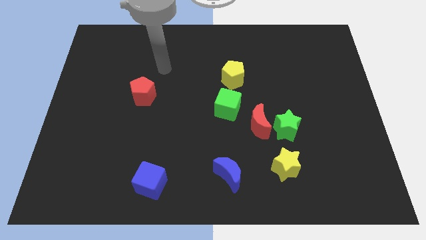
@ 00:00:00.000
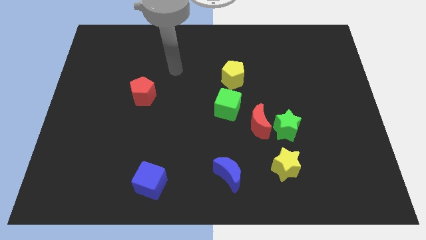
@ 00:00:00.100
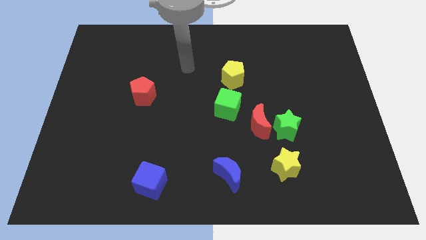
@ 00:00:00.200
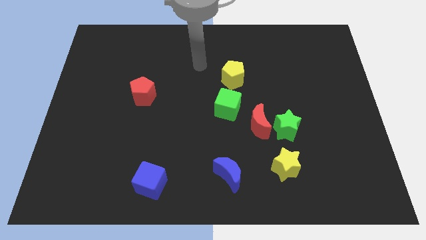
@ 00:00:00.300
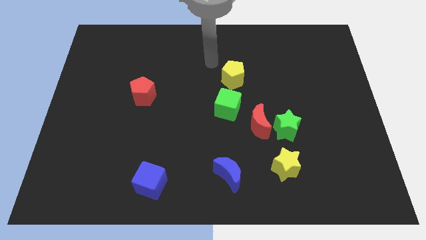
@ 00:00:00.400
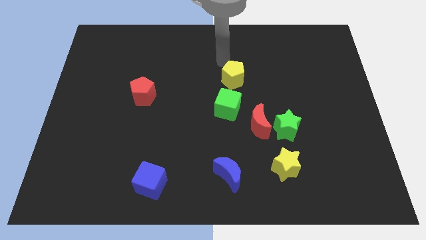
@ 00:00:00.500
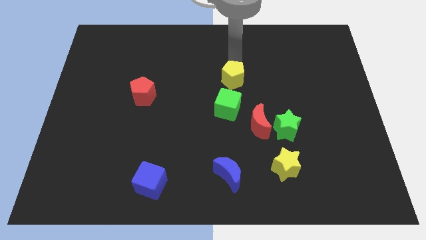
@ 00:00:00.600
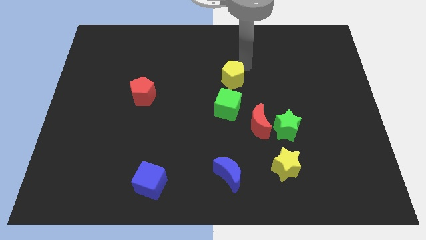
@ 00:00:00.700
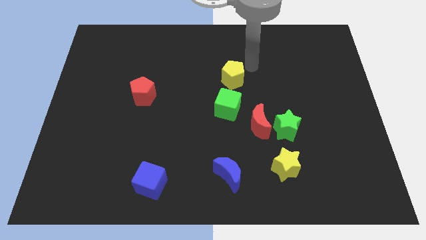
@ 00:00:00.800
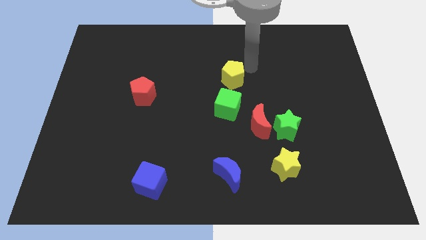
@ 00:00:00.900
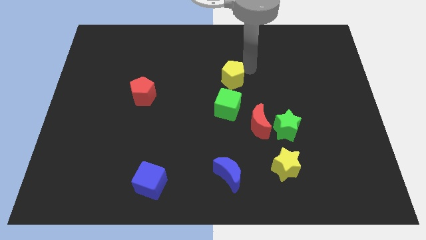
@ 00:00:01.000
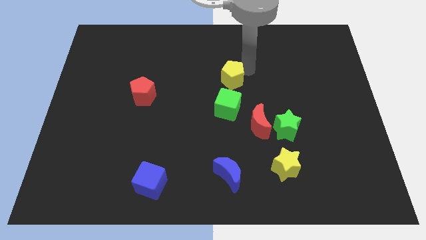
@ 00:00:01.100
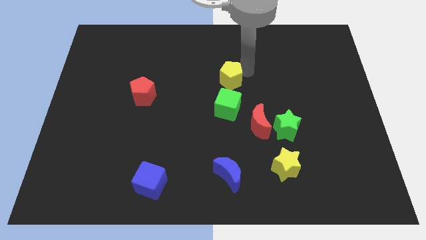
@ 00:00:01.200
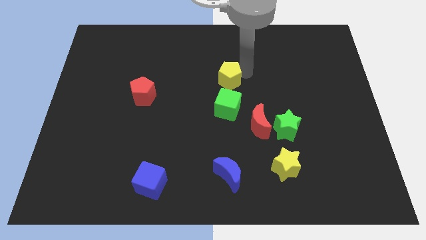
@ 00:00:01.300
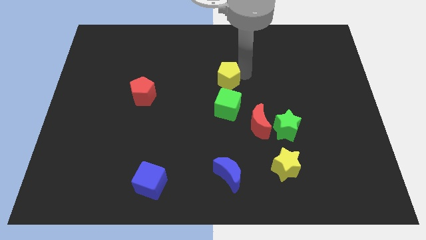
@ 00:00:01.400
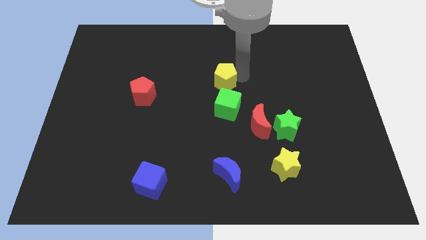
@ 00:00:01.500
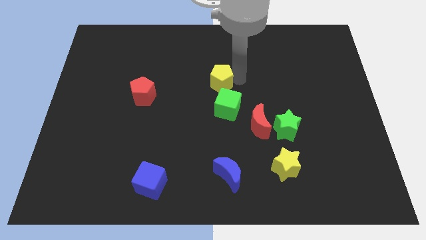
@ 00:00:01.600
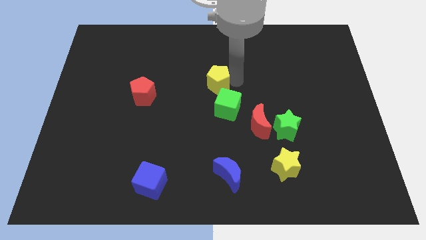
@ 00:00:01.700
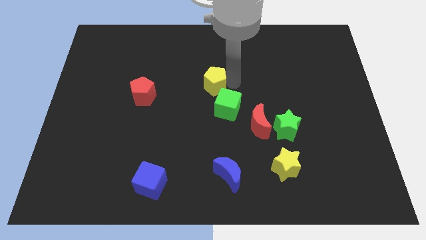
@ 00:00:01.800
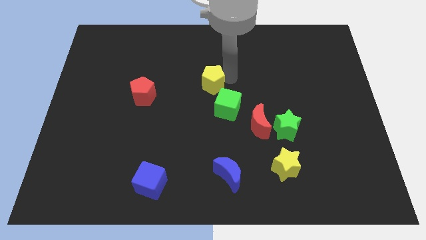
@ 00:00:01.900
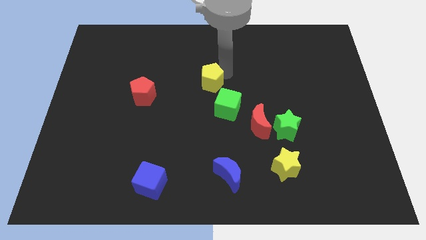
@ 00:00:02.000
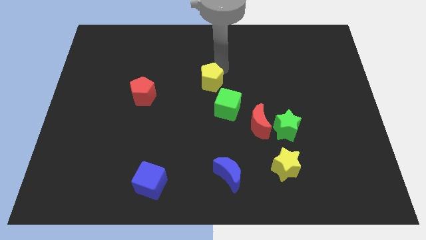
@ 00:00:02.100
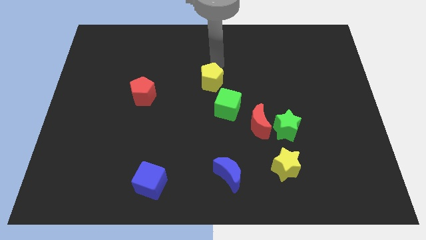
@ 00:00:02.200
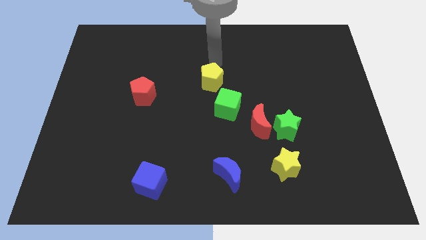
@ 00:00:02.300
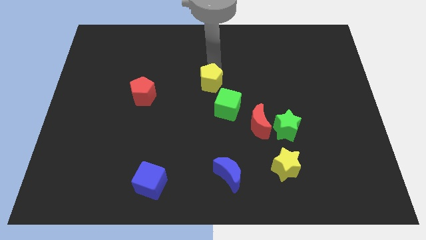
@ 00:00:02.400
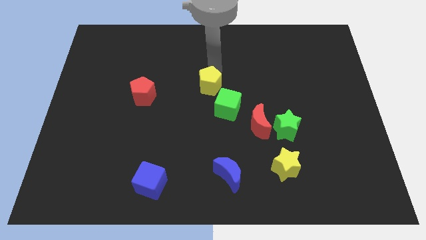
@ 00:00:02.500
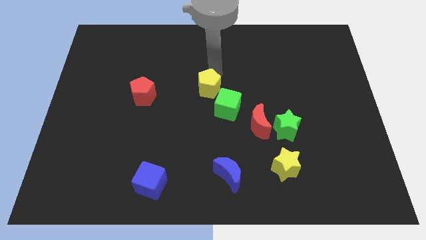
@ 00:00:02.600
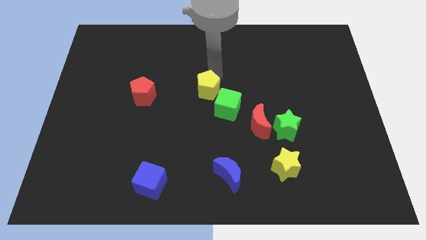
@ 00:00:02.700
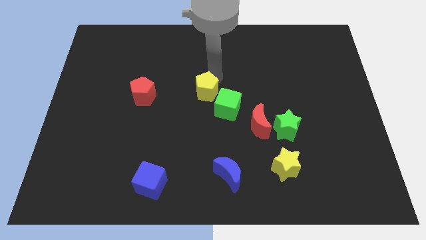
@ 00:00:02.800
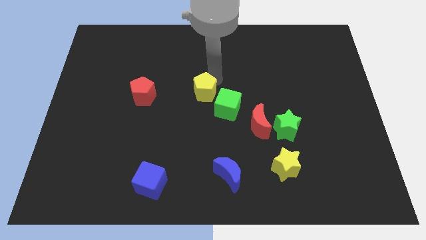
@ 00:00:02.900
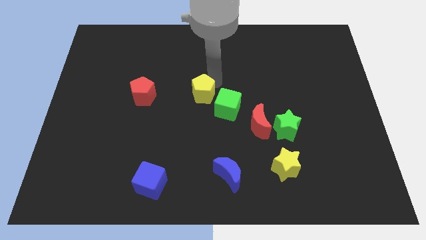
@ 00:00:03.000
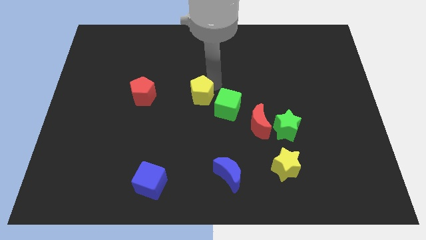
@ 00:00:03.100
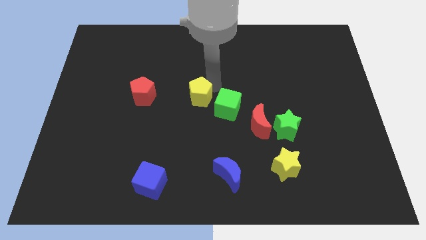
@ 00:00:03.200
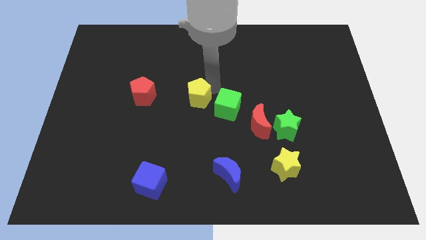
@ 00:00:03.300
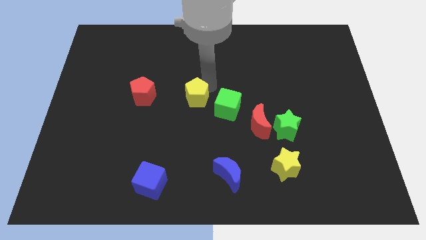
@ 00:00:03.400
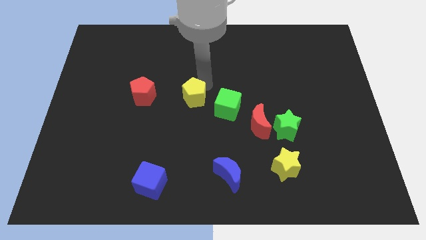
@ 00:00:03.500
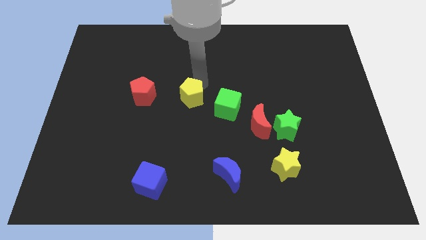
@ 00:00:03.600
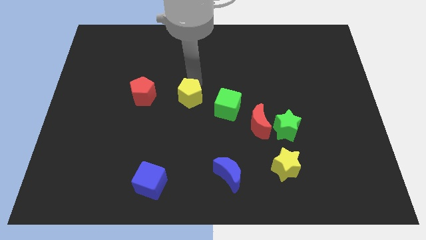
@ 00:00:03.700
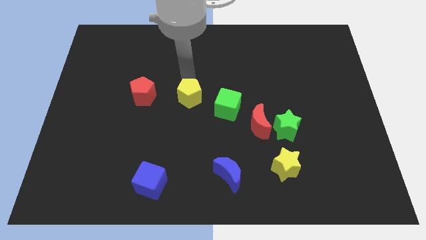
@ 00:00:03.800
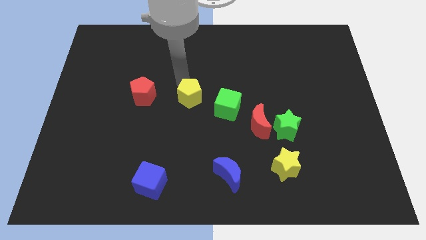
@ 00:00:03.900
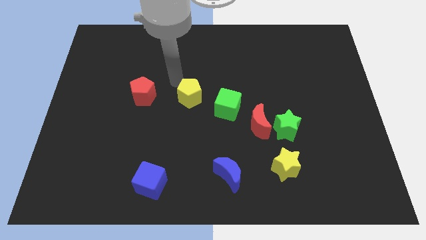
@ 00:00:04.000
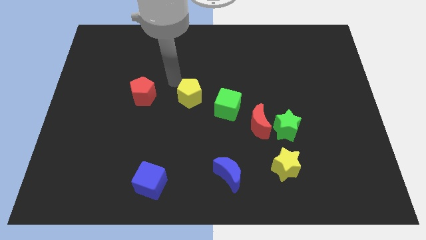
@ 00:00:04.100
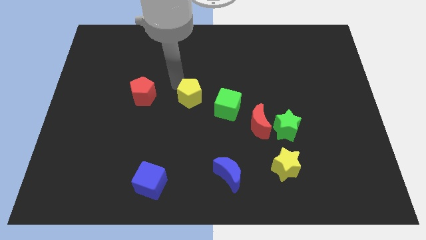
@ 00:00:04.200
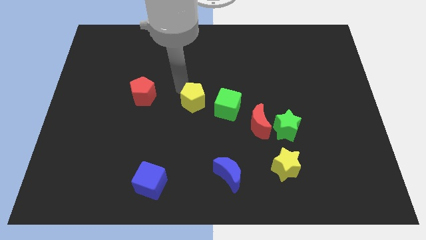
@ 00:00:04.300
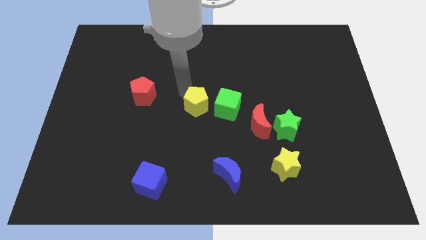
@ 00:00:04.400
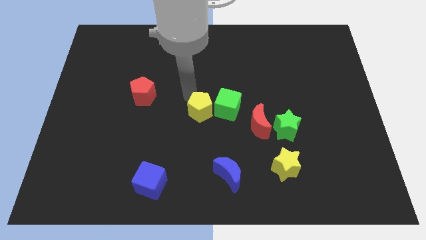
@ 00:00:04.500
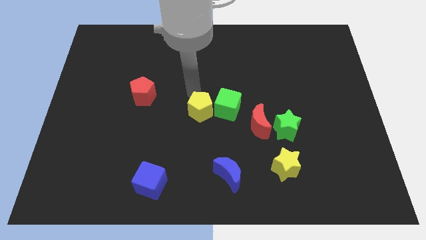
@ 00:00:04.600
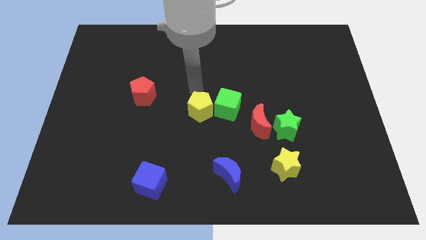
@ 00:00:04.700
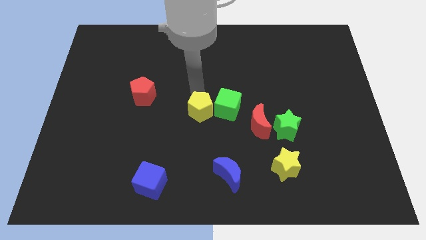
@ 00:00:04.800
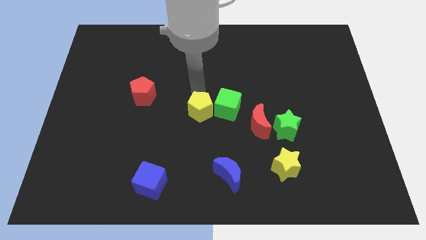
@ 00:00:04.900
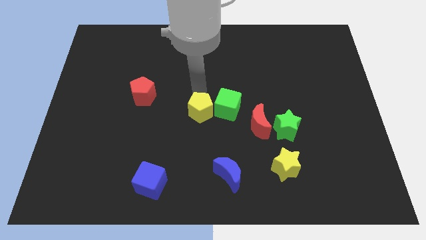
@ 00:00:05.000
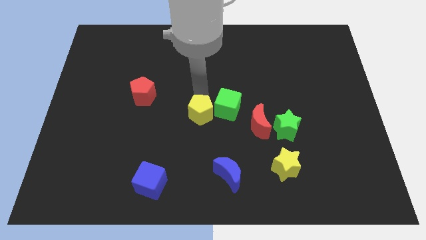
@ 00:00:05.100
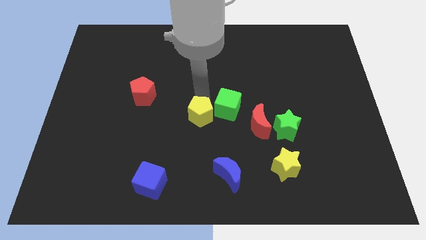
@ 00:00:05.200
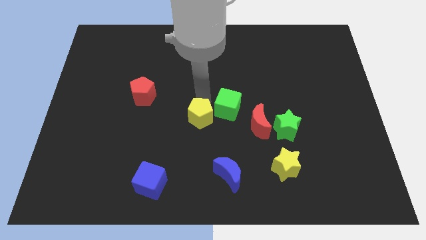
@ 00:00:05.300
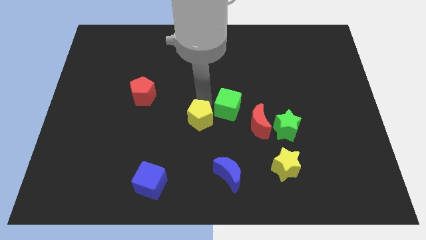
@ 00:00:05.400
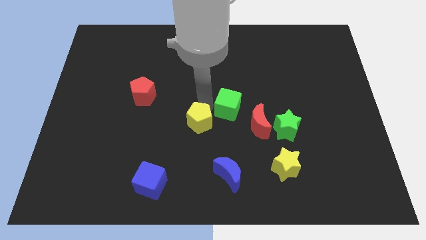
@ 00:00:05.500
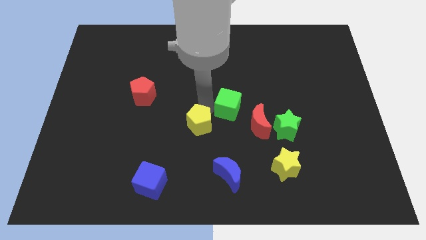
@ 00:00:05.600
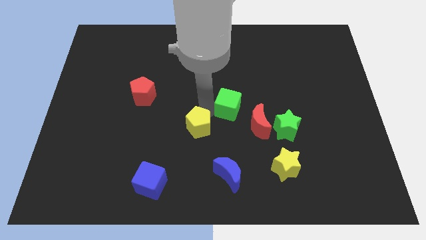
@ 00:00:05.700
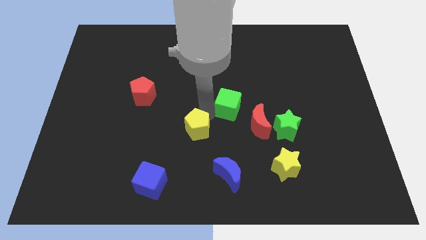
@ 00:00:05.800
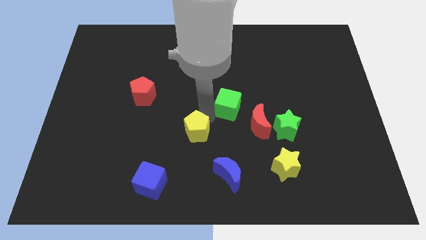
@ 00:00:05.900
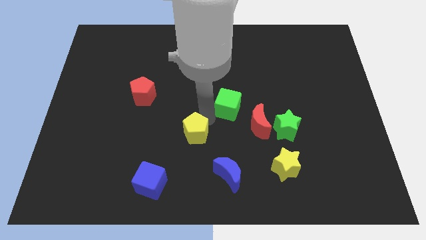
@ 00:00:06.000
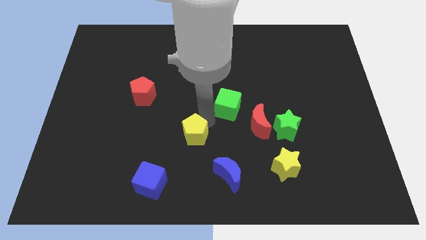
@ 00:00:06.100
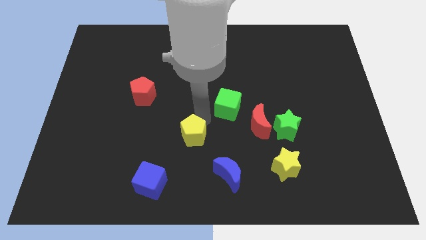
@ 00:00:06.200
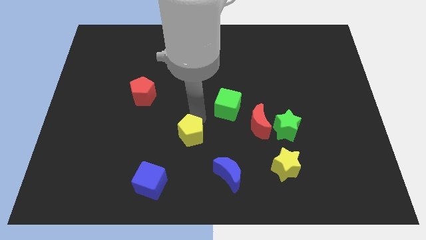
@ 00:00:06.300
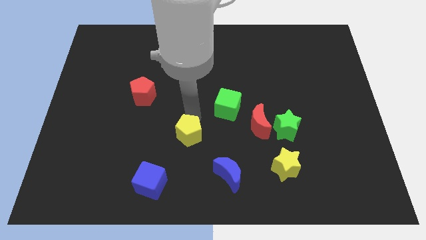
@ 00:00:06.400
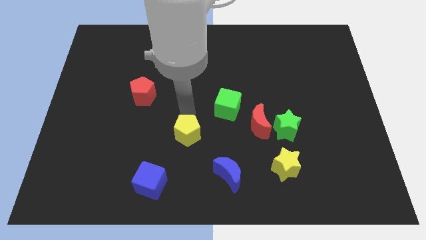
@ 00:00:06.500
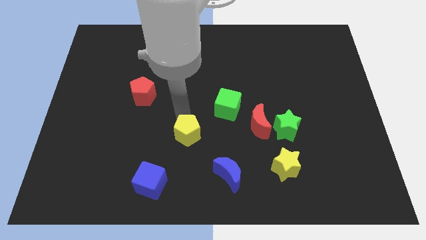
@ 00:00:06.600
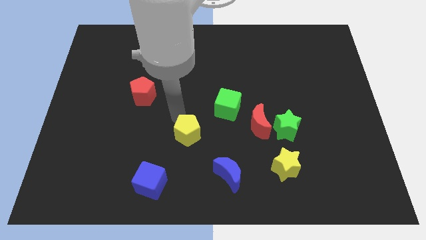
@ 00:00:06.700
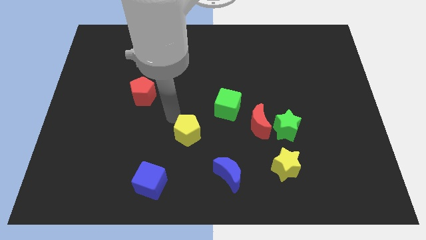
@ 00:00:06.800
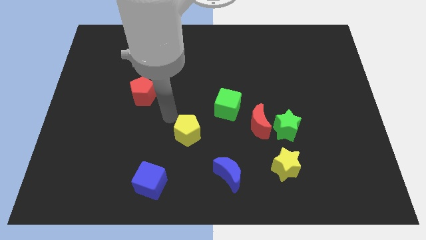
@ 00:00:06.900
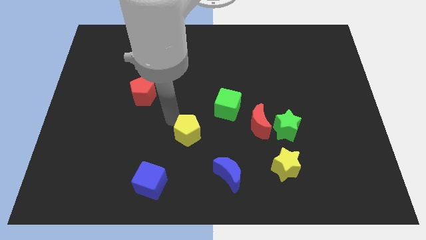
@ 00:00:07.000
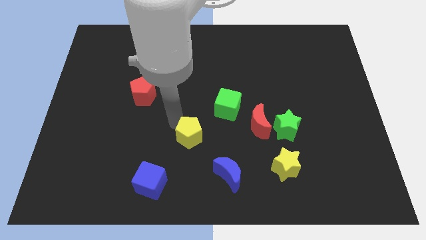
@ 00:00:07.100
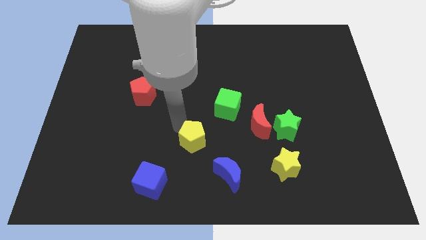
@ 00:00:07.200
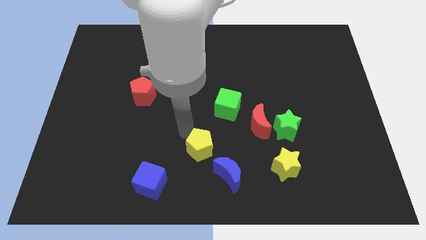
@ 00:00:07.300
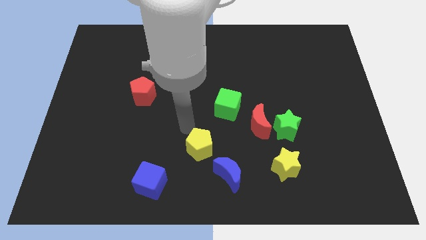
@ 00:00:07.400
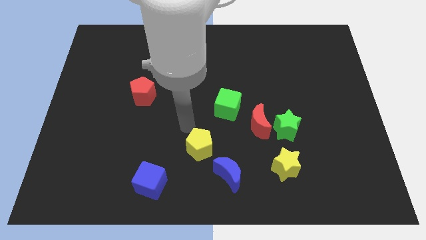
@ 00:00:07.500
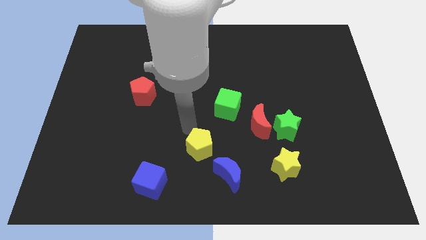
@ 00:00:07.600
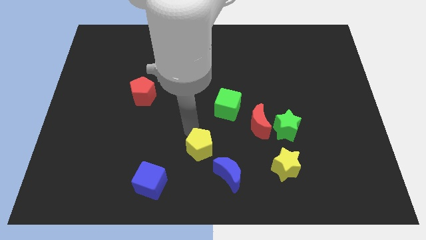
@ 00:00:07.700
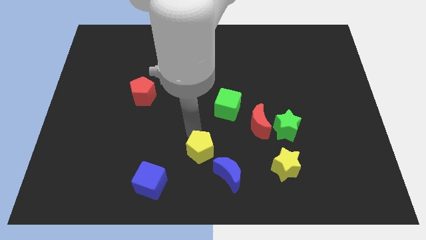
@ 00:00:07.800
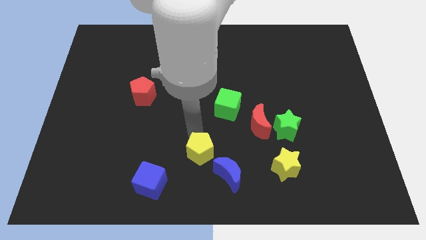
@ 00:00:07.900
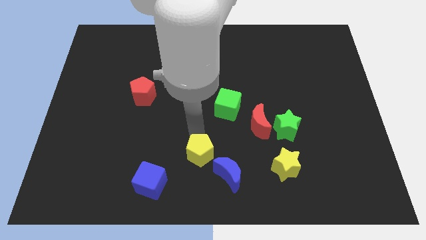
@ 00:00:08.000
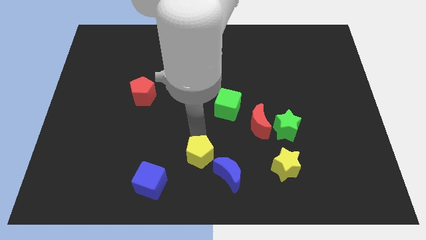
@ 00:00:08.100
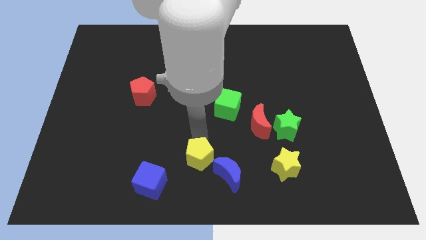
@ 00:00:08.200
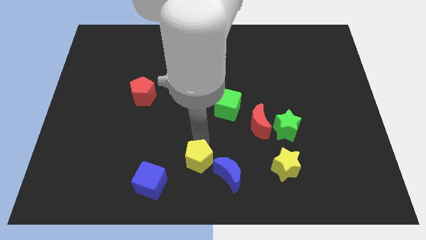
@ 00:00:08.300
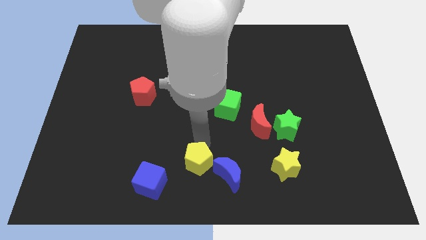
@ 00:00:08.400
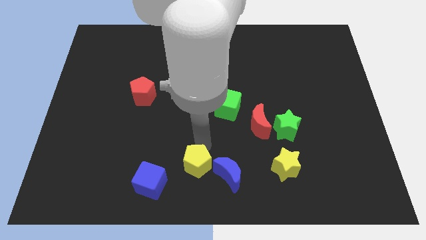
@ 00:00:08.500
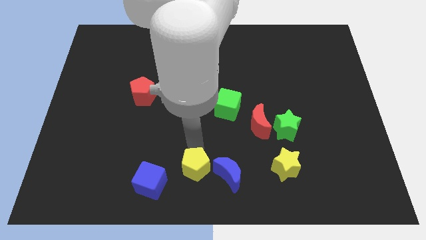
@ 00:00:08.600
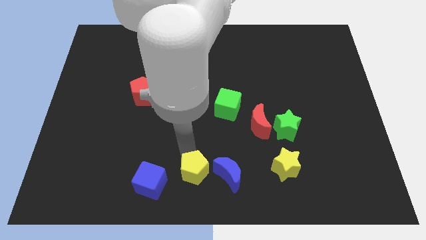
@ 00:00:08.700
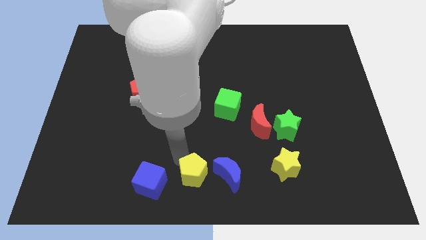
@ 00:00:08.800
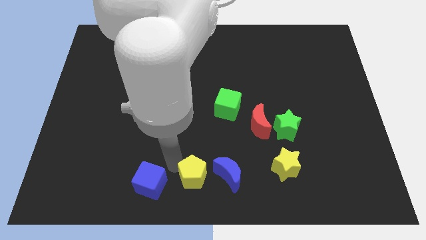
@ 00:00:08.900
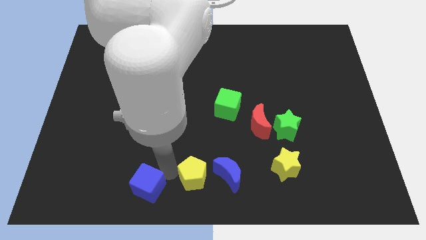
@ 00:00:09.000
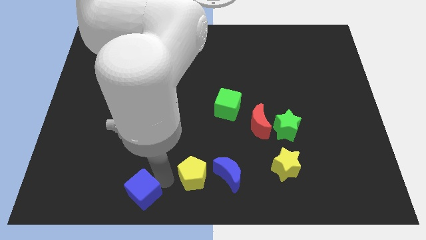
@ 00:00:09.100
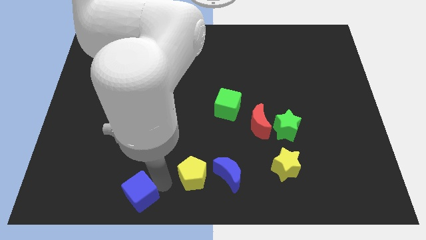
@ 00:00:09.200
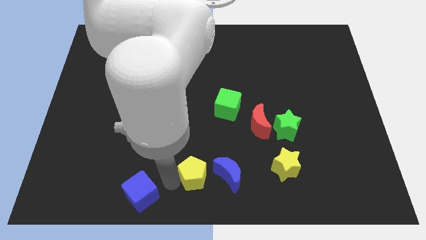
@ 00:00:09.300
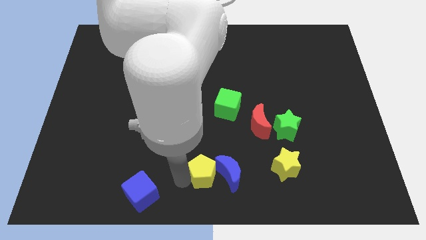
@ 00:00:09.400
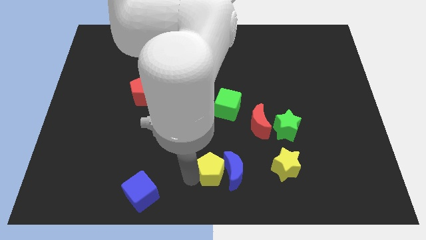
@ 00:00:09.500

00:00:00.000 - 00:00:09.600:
move the yellow pentagon left of the yellow star
